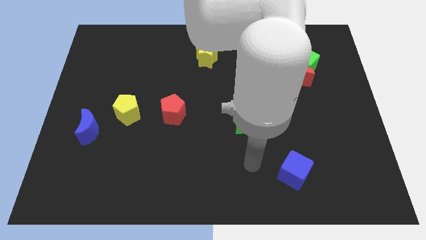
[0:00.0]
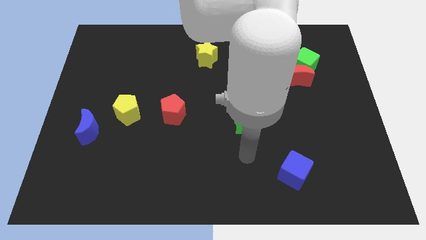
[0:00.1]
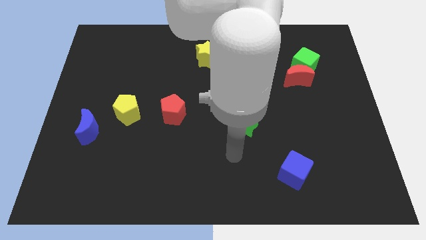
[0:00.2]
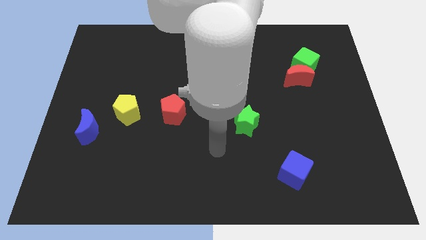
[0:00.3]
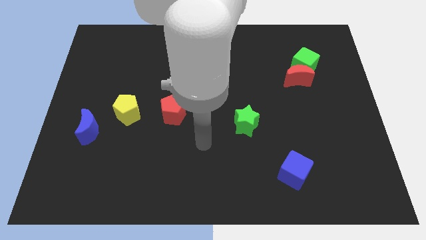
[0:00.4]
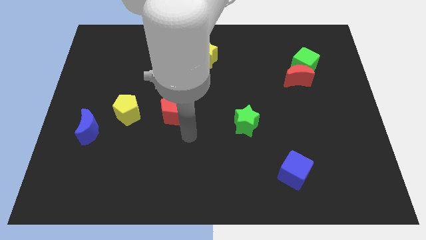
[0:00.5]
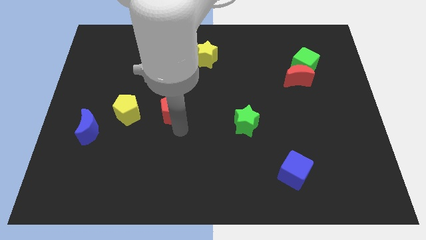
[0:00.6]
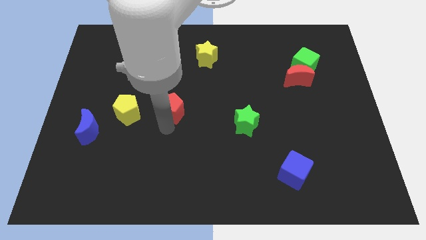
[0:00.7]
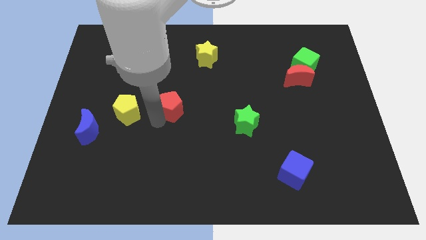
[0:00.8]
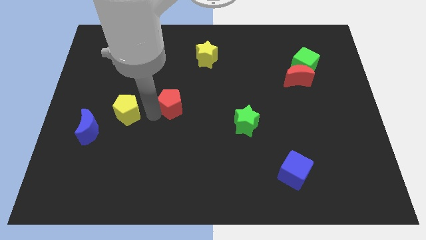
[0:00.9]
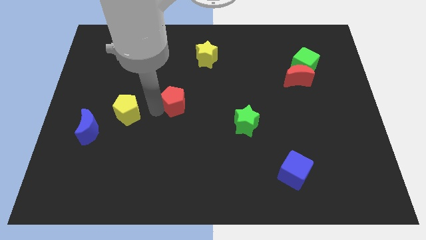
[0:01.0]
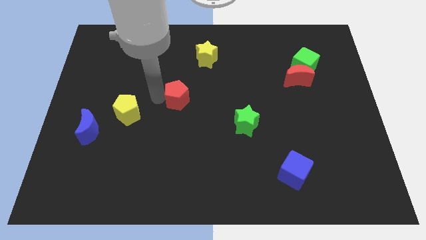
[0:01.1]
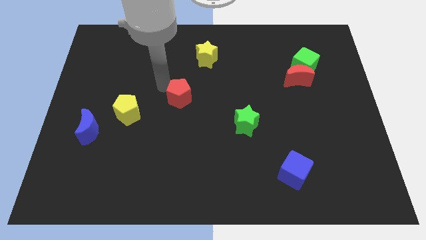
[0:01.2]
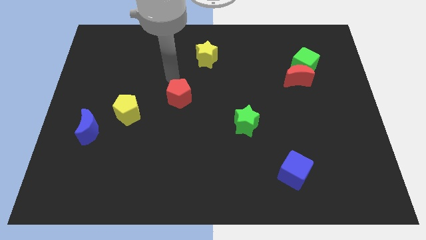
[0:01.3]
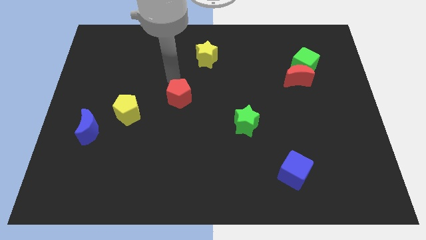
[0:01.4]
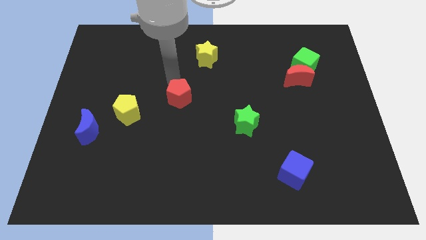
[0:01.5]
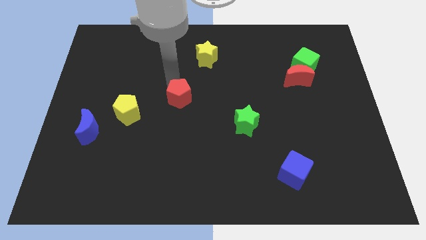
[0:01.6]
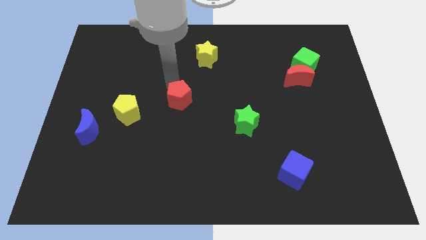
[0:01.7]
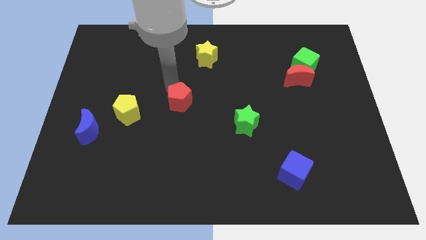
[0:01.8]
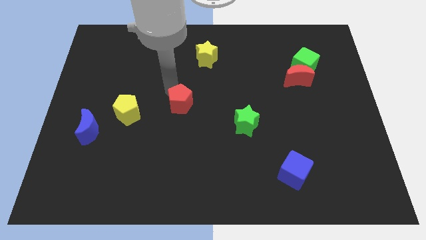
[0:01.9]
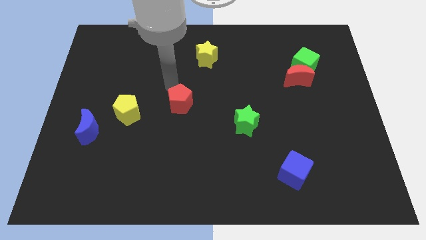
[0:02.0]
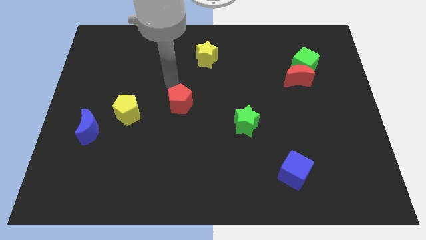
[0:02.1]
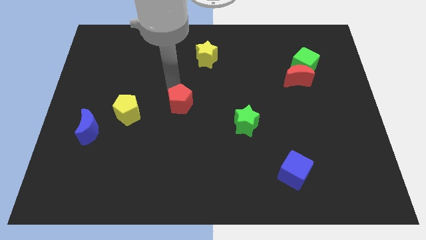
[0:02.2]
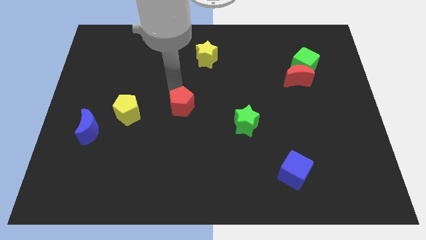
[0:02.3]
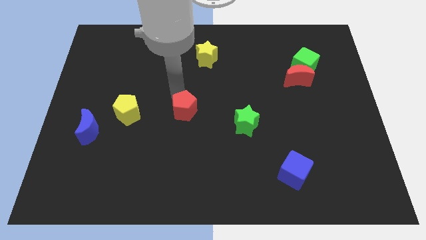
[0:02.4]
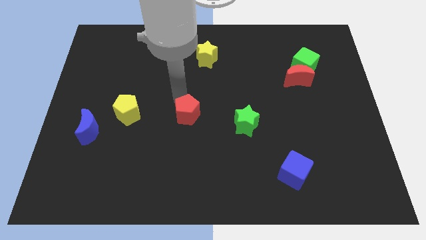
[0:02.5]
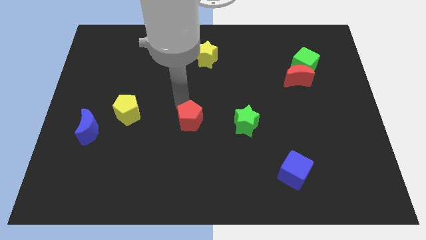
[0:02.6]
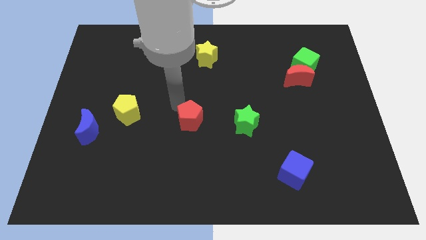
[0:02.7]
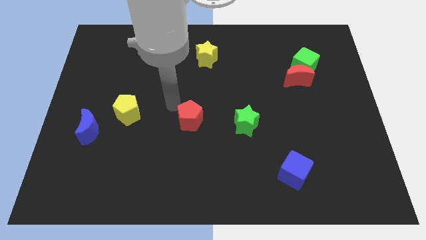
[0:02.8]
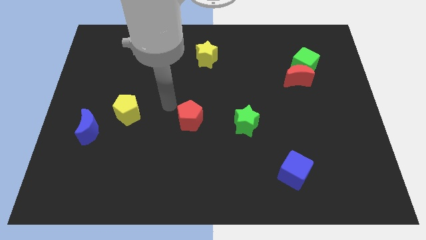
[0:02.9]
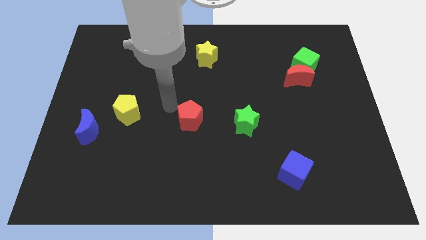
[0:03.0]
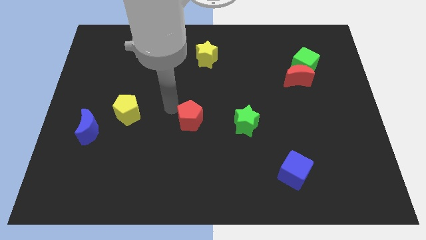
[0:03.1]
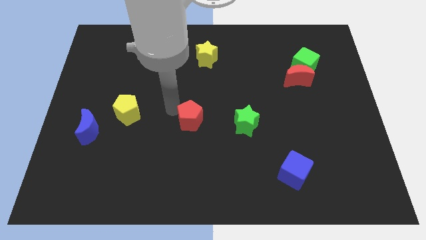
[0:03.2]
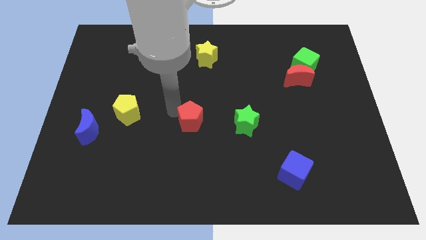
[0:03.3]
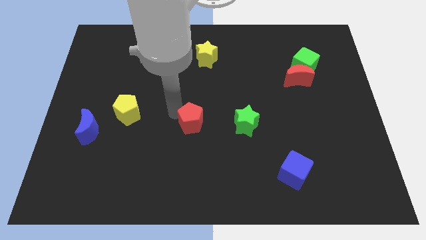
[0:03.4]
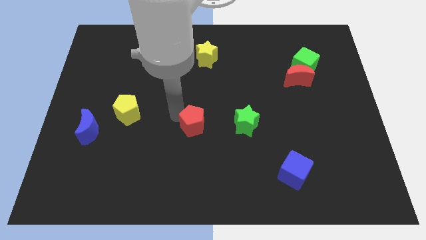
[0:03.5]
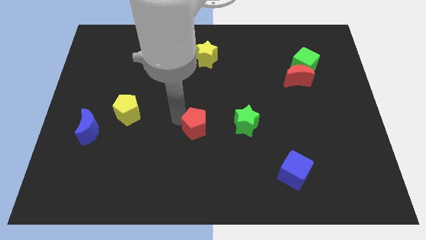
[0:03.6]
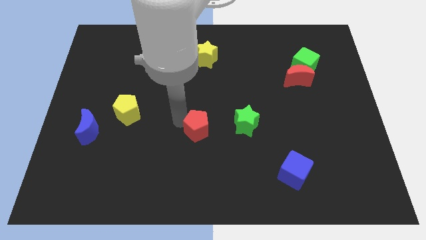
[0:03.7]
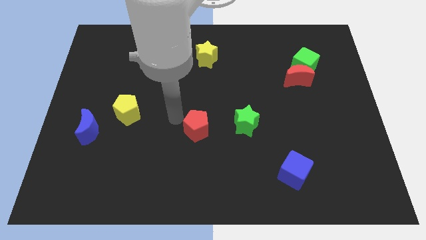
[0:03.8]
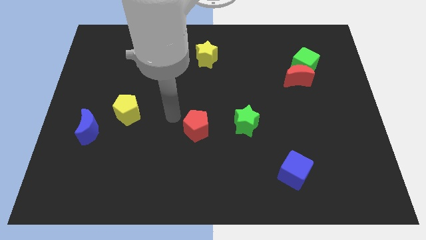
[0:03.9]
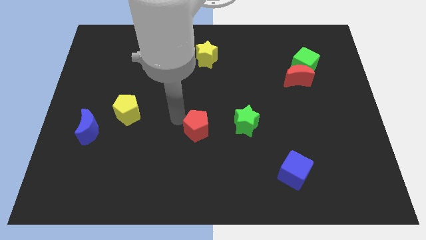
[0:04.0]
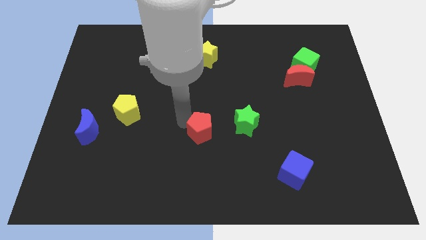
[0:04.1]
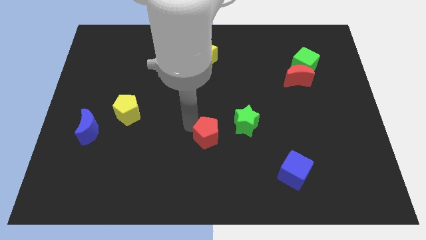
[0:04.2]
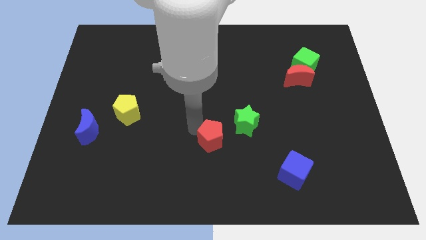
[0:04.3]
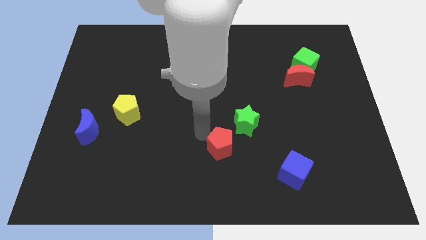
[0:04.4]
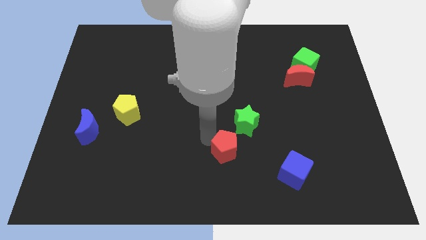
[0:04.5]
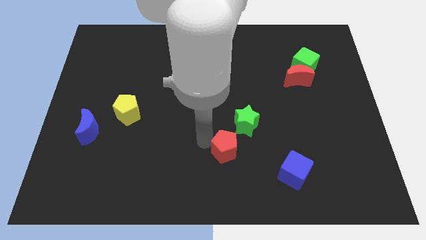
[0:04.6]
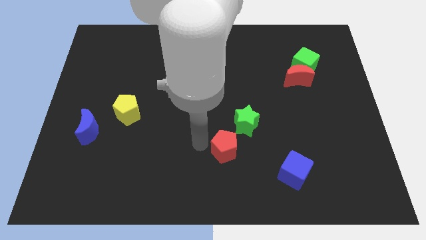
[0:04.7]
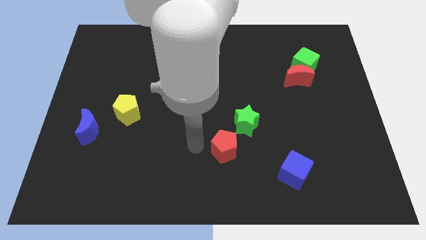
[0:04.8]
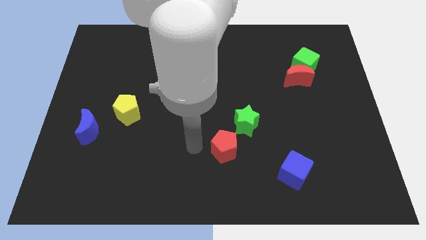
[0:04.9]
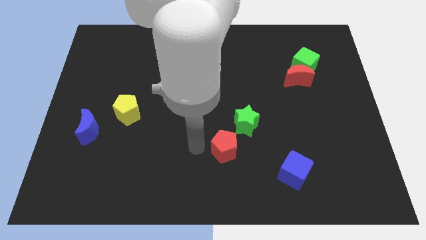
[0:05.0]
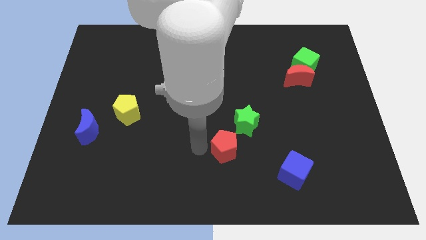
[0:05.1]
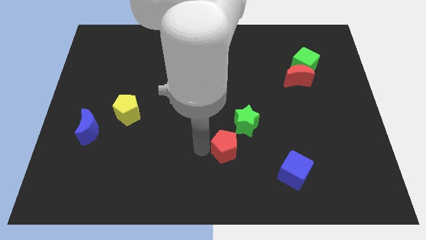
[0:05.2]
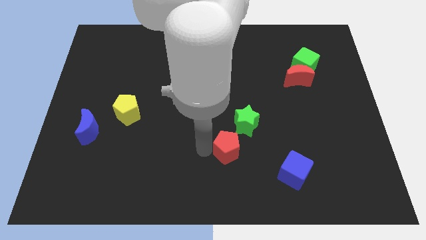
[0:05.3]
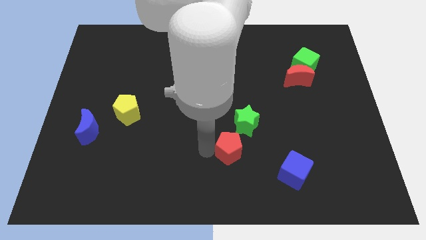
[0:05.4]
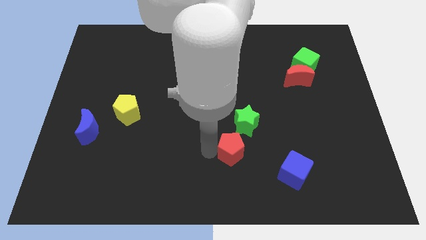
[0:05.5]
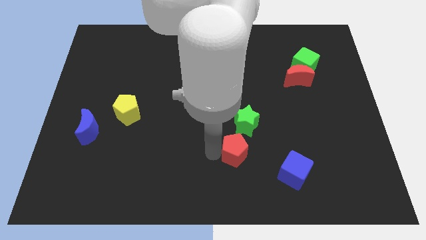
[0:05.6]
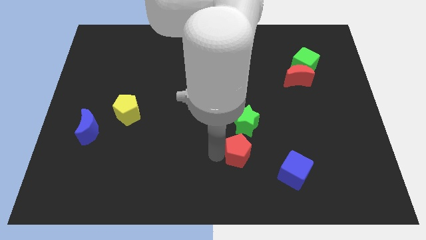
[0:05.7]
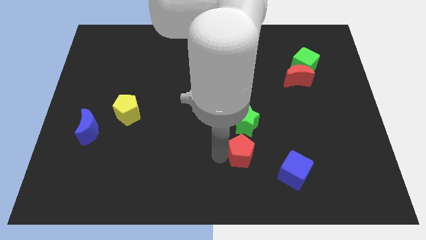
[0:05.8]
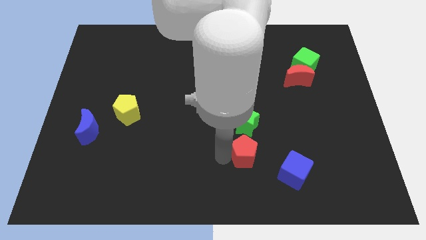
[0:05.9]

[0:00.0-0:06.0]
put the red pentagon to the top left of the blue cube

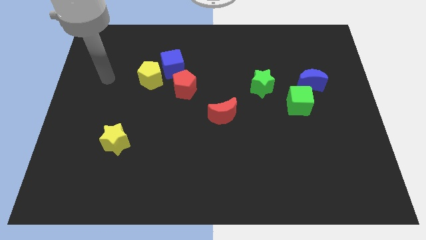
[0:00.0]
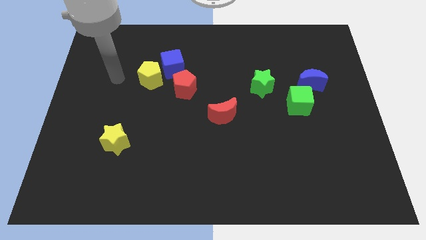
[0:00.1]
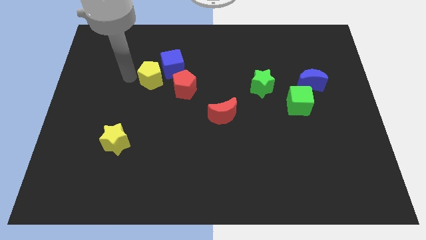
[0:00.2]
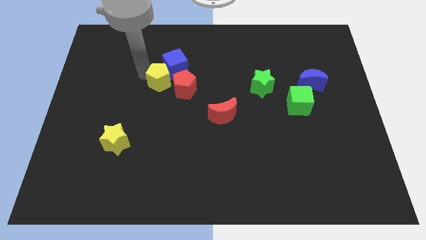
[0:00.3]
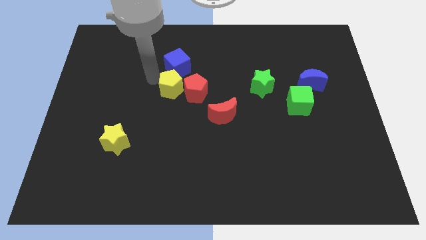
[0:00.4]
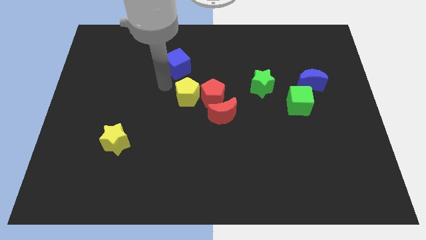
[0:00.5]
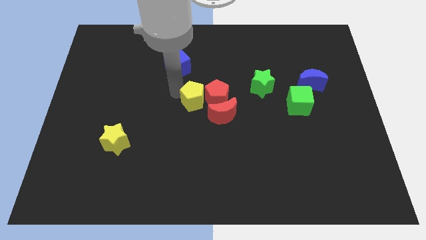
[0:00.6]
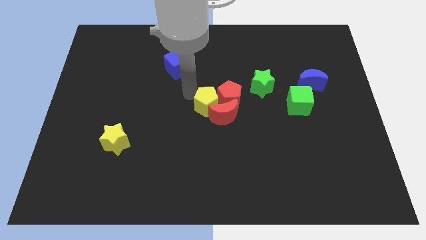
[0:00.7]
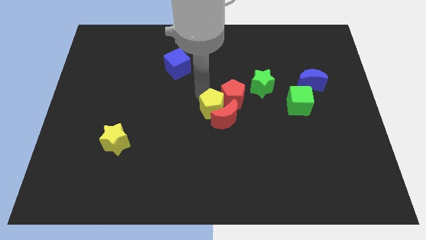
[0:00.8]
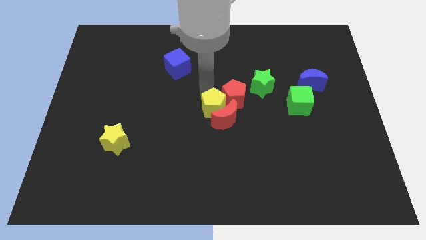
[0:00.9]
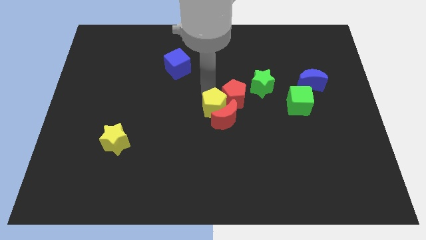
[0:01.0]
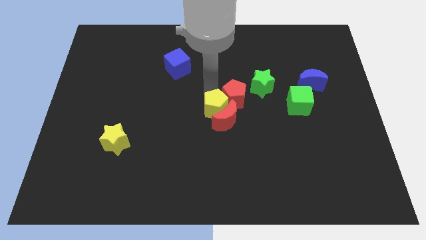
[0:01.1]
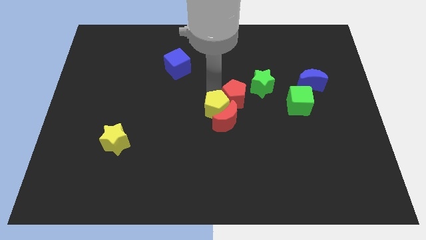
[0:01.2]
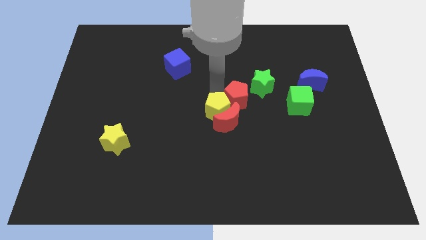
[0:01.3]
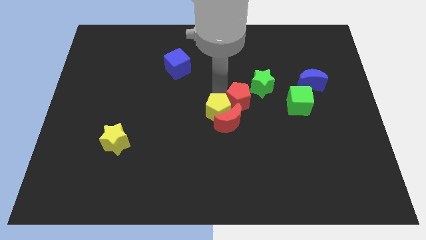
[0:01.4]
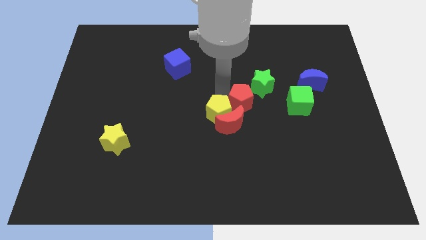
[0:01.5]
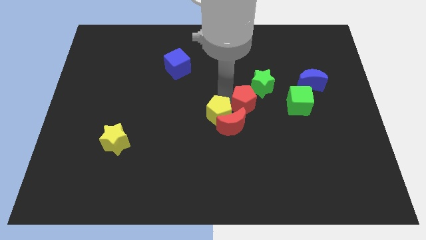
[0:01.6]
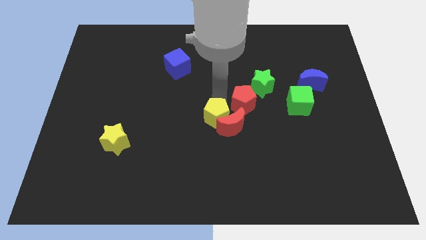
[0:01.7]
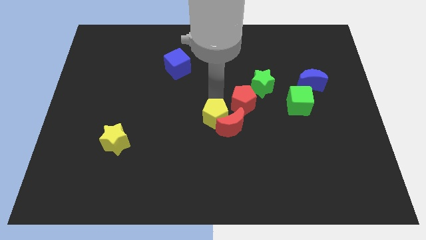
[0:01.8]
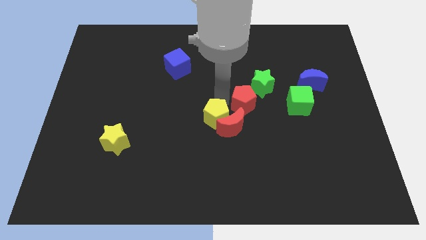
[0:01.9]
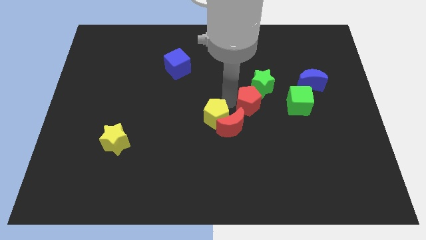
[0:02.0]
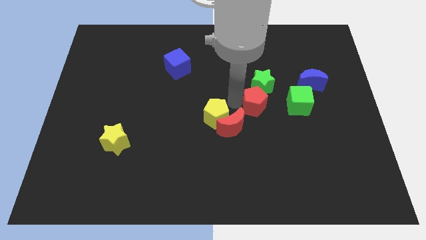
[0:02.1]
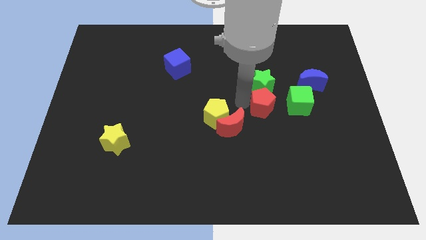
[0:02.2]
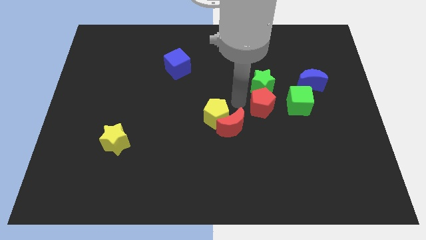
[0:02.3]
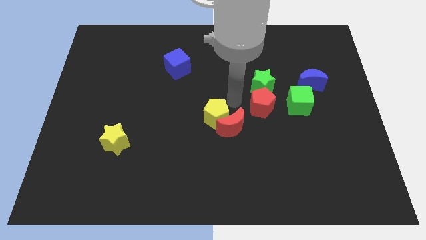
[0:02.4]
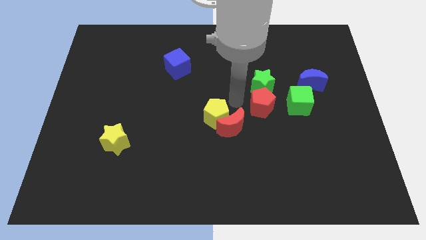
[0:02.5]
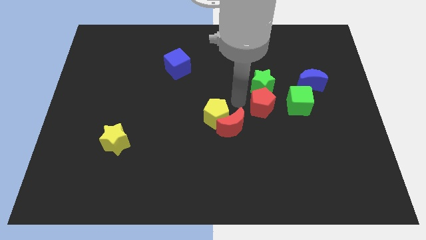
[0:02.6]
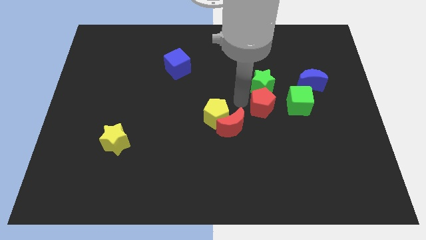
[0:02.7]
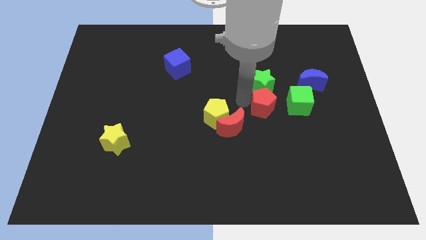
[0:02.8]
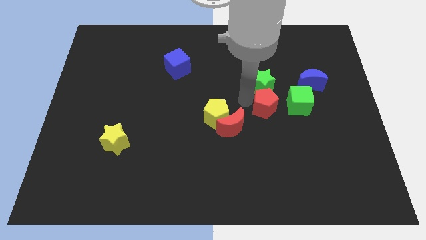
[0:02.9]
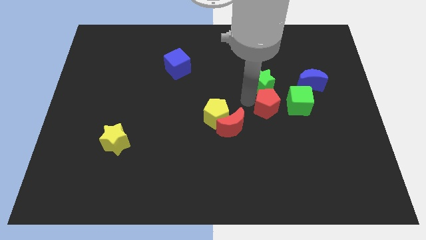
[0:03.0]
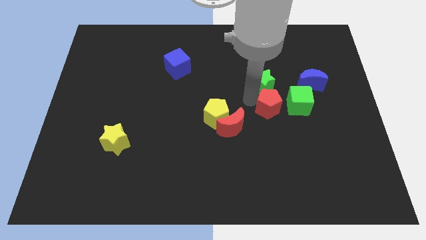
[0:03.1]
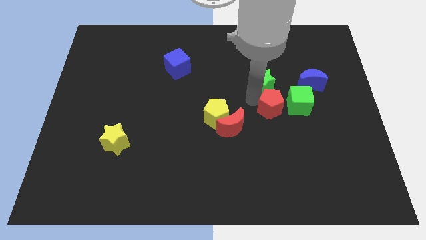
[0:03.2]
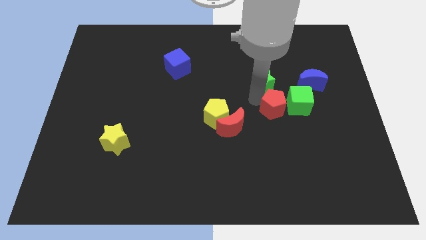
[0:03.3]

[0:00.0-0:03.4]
slide the red pentagon diagonally down and to the left of the blue moon
